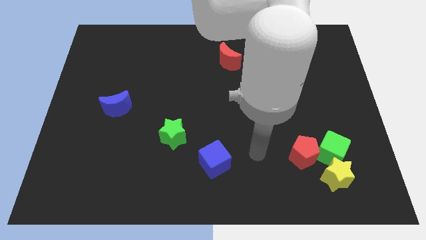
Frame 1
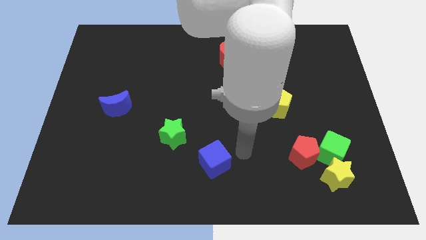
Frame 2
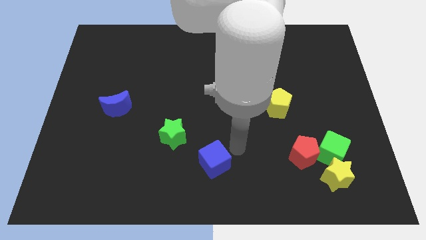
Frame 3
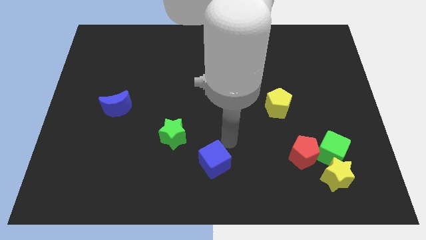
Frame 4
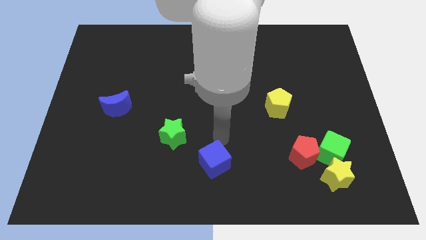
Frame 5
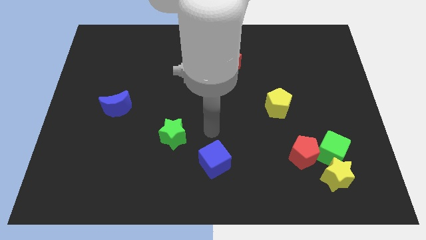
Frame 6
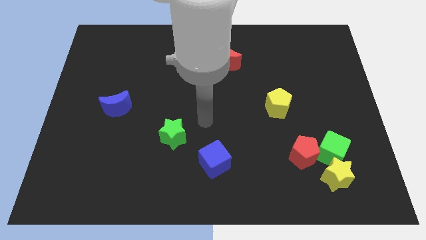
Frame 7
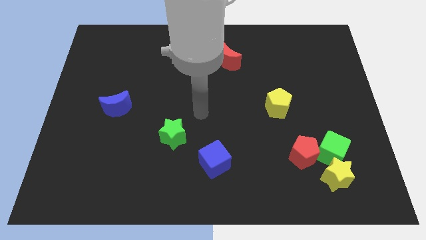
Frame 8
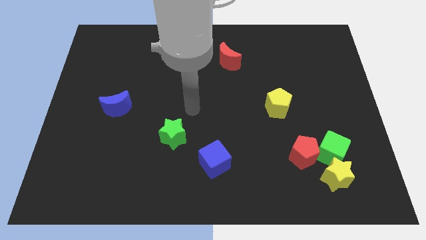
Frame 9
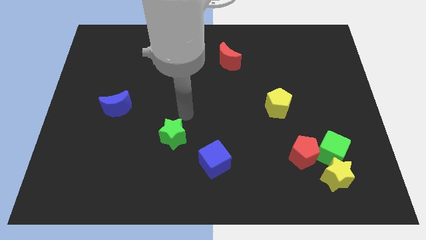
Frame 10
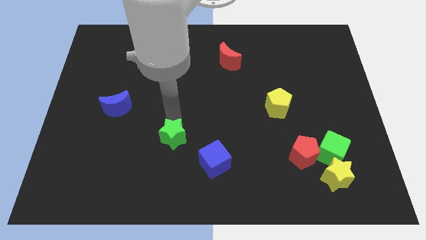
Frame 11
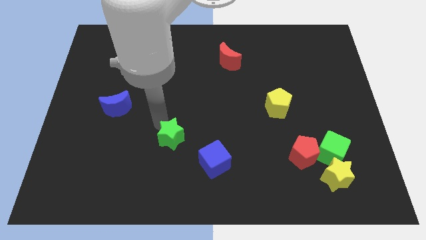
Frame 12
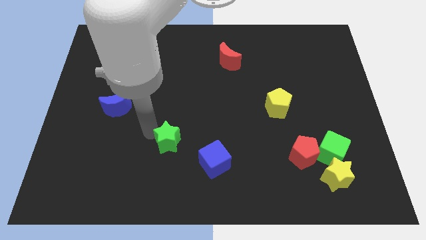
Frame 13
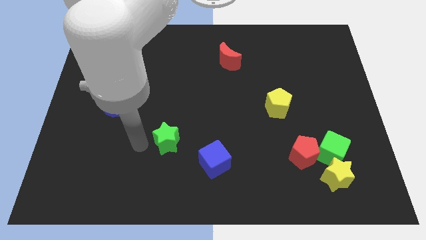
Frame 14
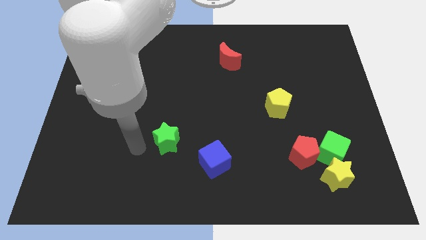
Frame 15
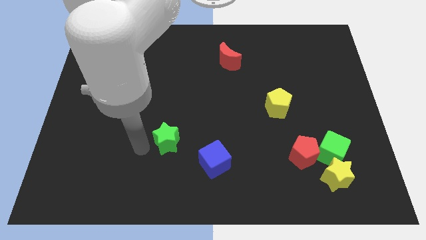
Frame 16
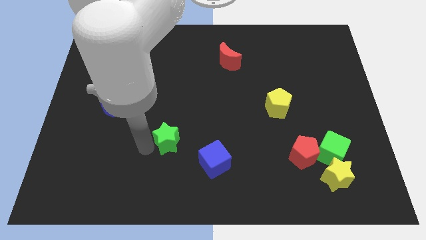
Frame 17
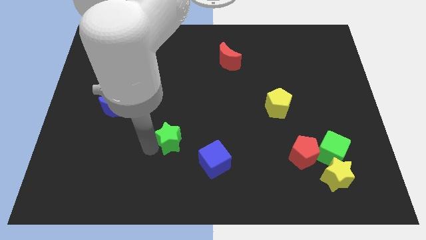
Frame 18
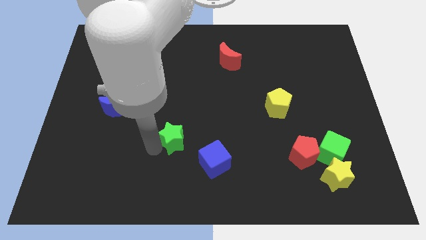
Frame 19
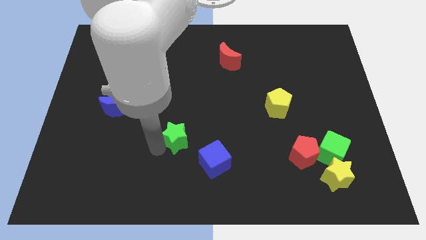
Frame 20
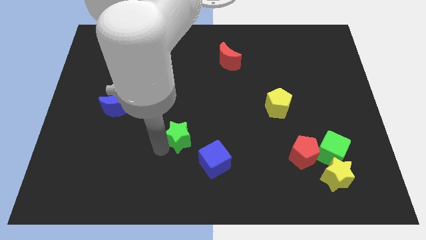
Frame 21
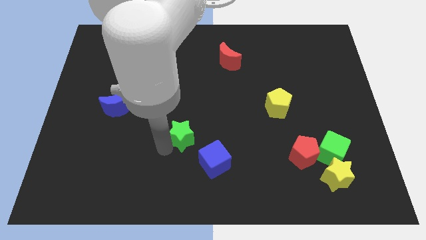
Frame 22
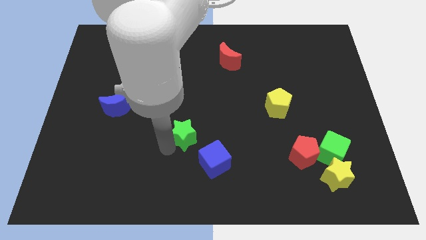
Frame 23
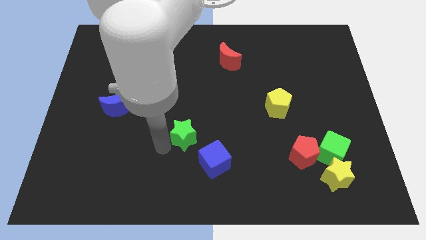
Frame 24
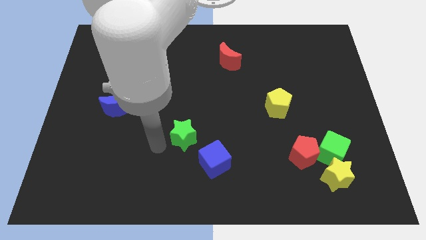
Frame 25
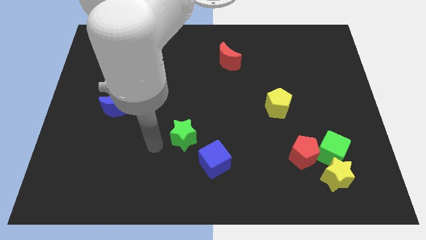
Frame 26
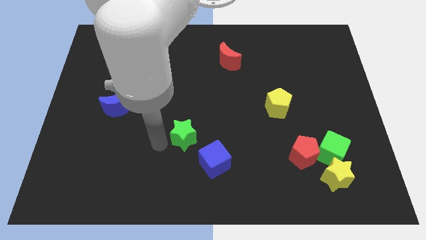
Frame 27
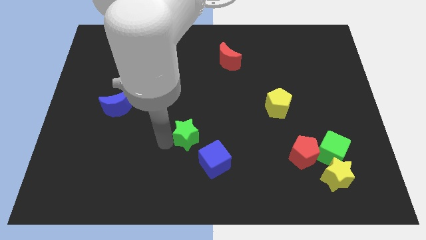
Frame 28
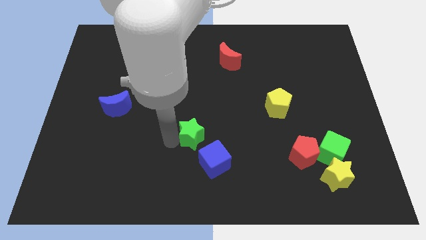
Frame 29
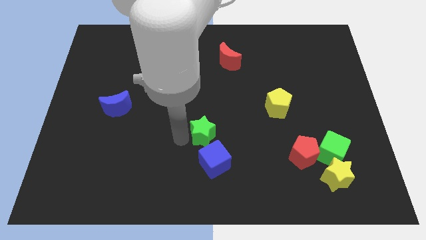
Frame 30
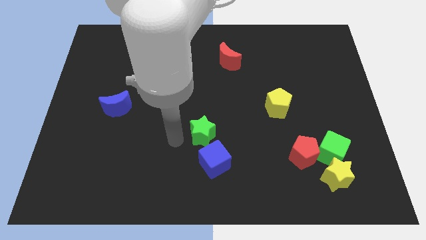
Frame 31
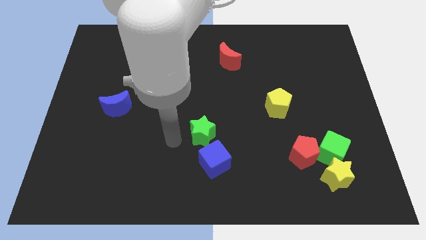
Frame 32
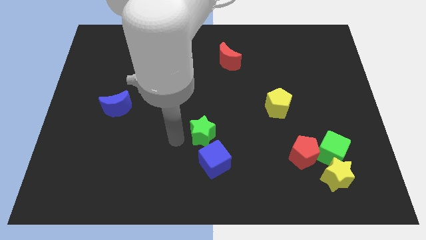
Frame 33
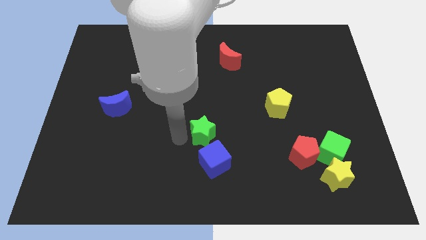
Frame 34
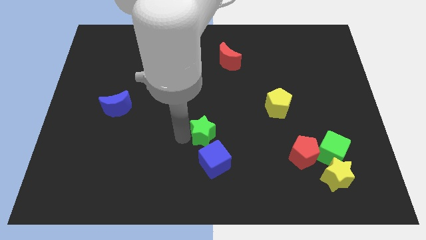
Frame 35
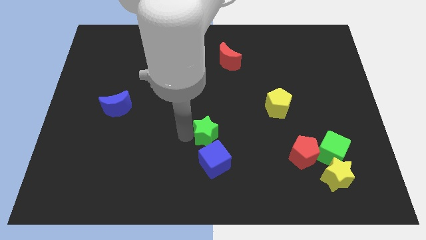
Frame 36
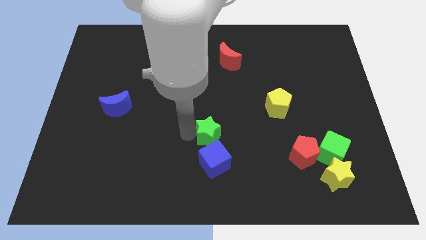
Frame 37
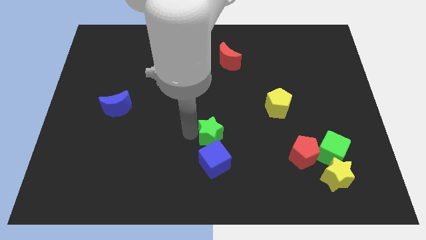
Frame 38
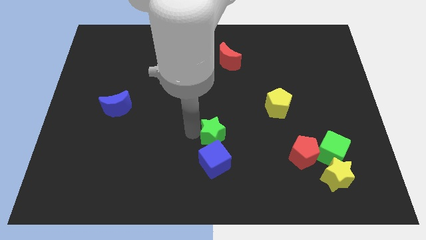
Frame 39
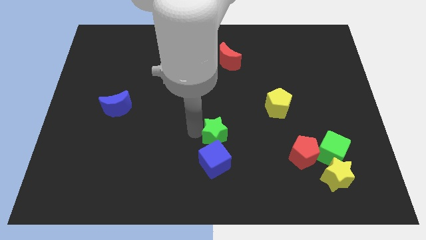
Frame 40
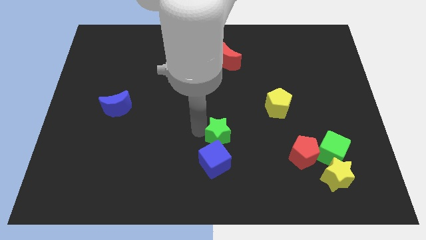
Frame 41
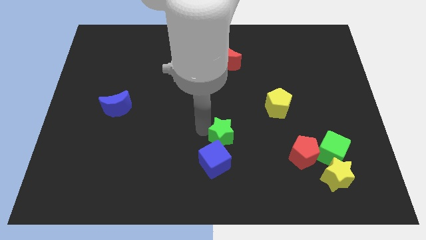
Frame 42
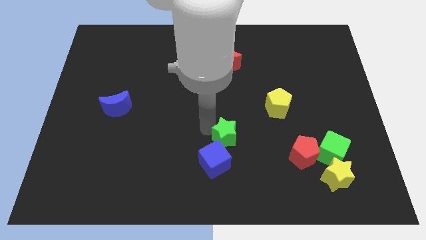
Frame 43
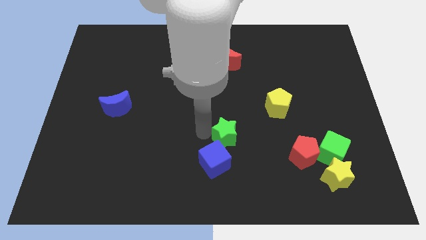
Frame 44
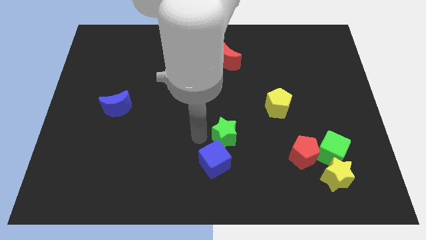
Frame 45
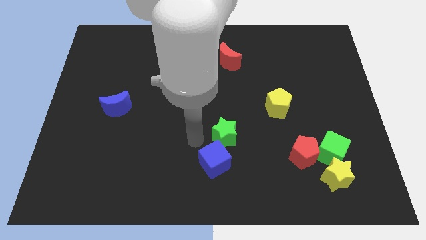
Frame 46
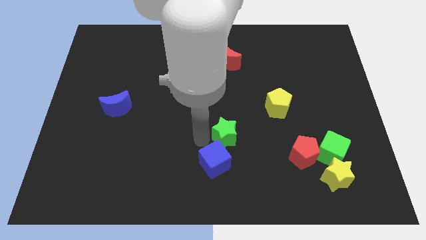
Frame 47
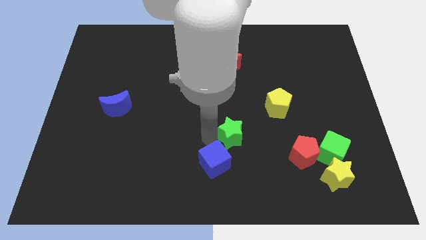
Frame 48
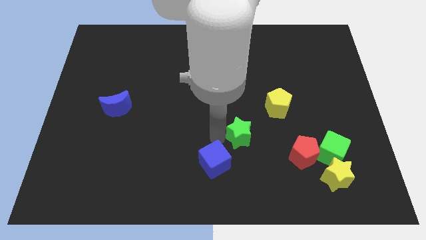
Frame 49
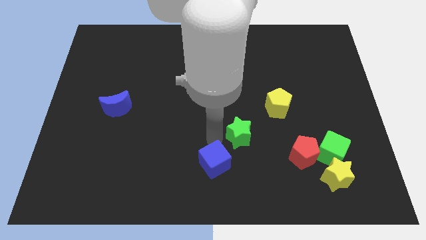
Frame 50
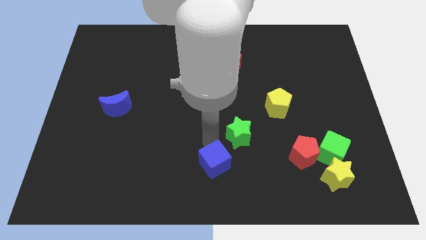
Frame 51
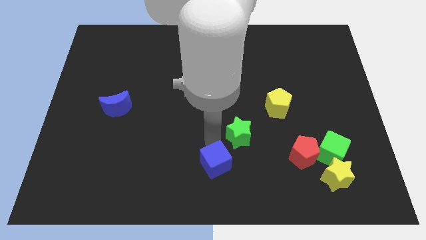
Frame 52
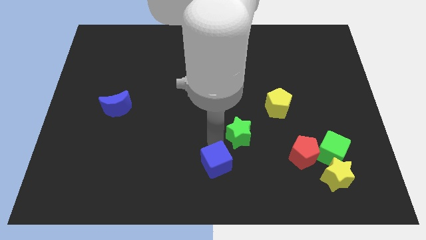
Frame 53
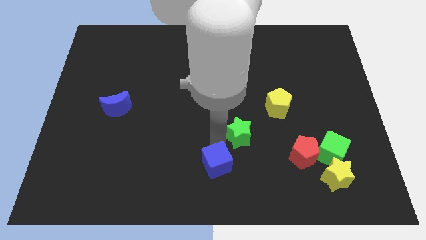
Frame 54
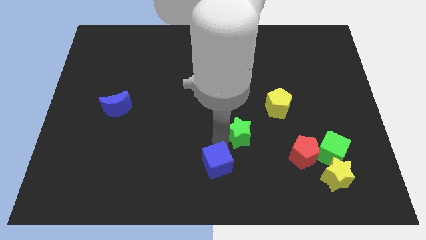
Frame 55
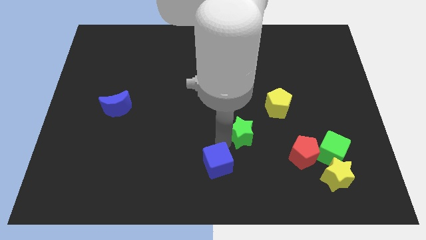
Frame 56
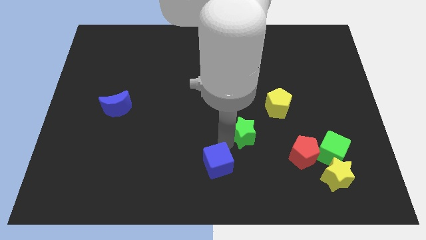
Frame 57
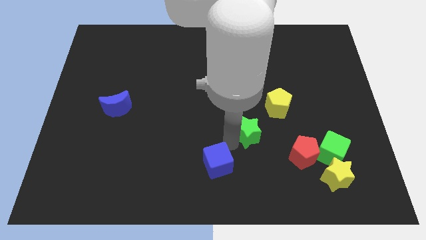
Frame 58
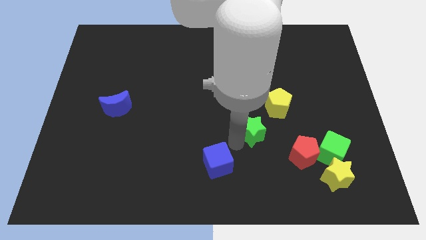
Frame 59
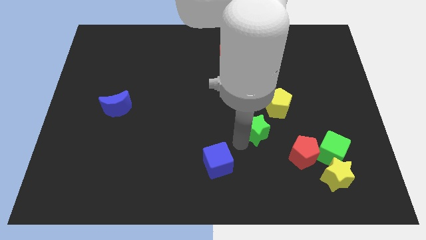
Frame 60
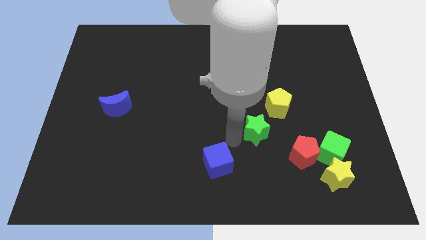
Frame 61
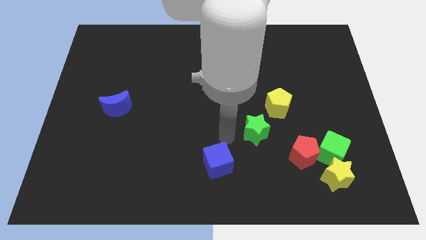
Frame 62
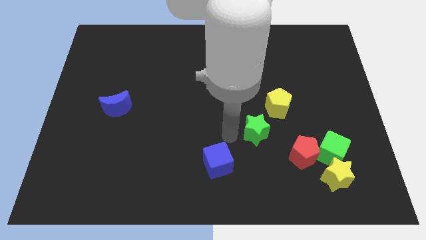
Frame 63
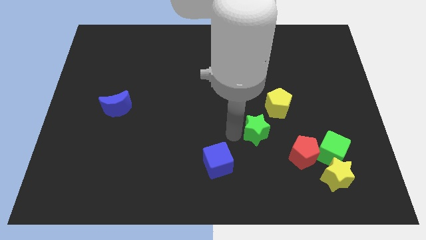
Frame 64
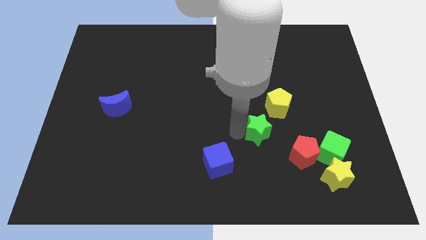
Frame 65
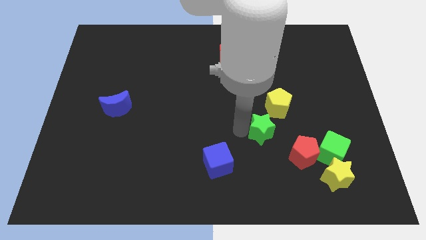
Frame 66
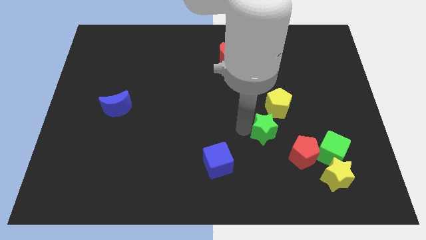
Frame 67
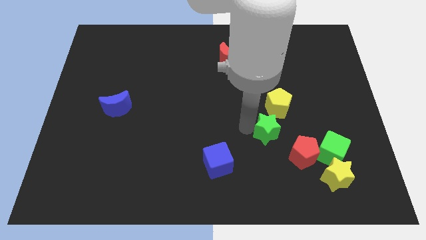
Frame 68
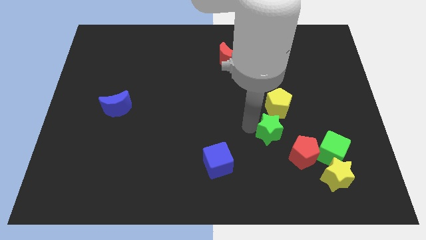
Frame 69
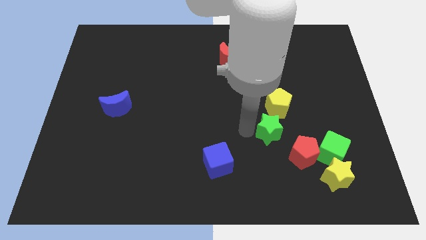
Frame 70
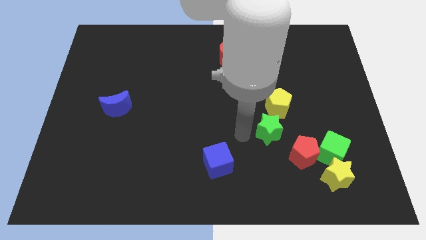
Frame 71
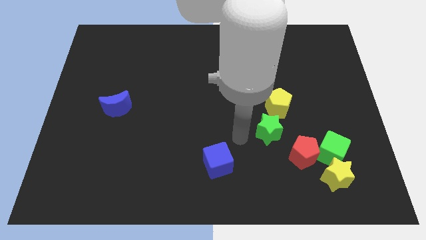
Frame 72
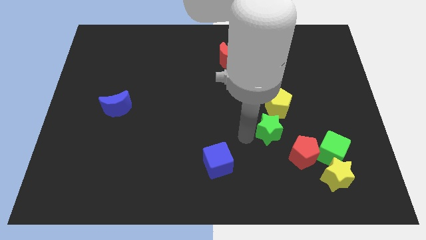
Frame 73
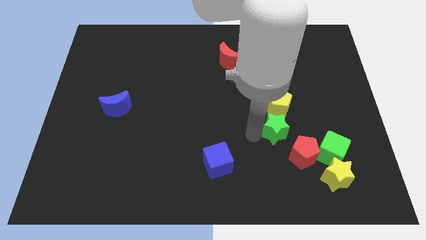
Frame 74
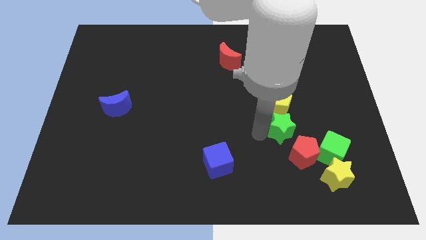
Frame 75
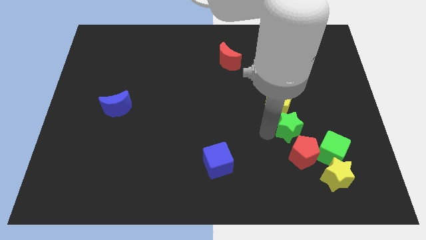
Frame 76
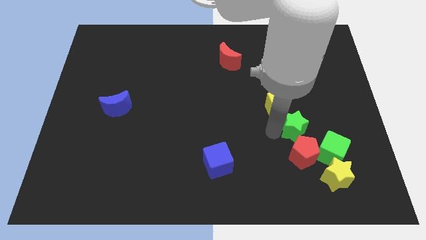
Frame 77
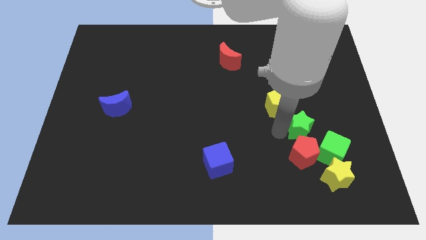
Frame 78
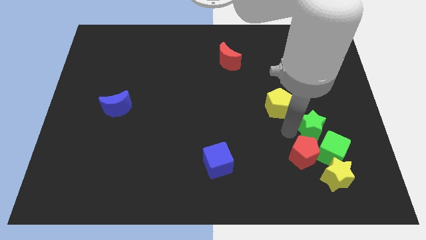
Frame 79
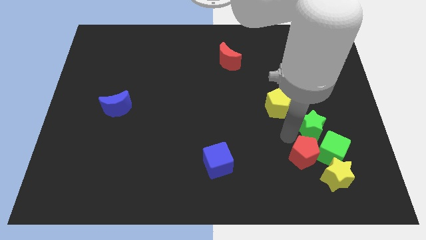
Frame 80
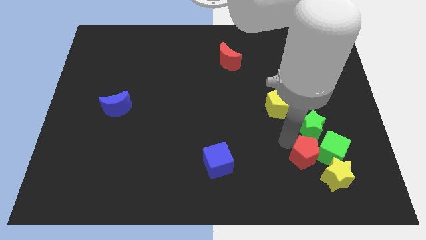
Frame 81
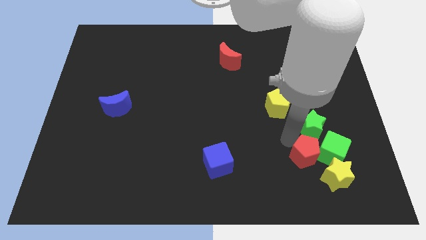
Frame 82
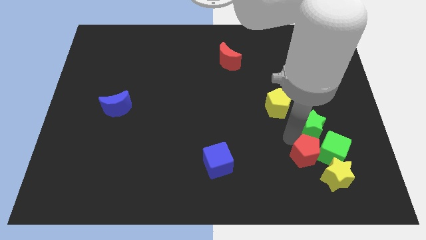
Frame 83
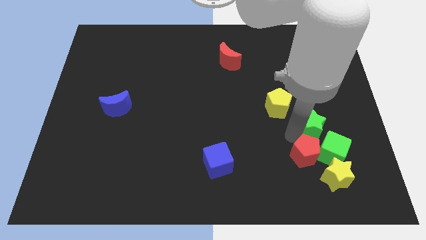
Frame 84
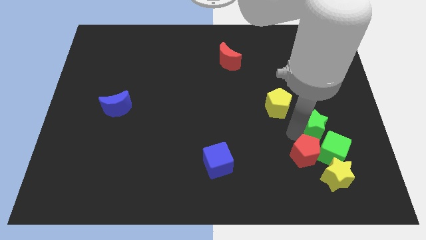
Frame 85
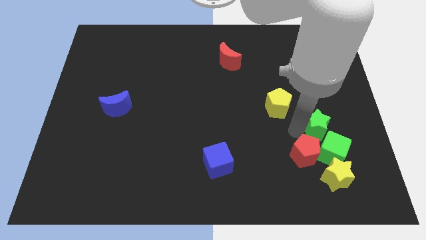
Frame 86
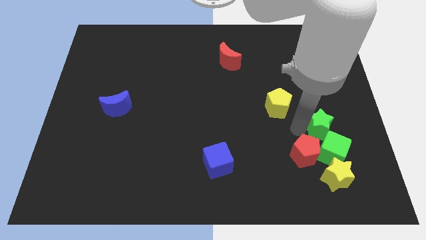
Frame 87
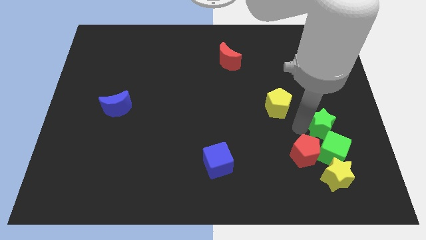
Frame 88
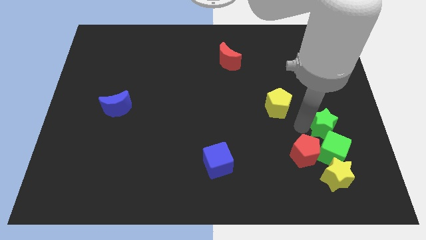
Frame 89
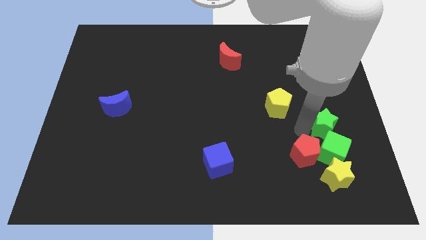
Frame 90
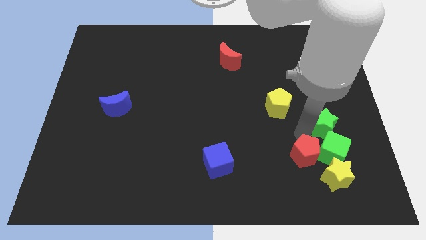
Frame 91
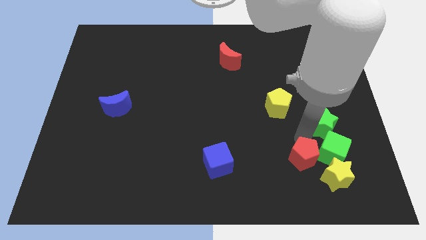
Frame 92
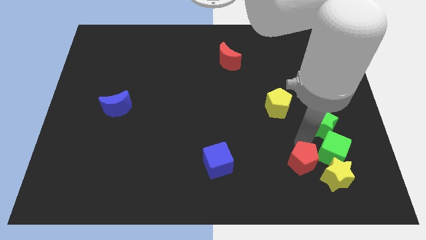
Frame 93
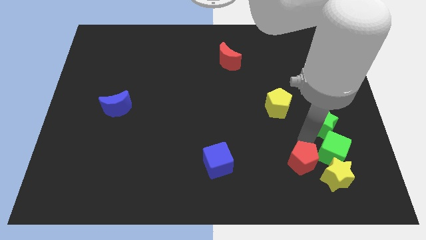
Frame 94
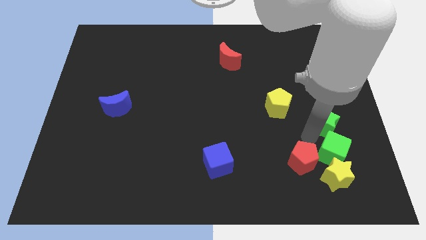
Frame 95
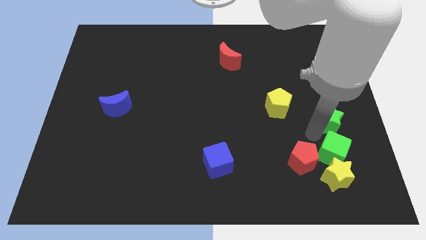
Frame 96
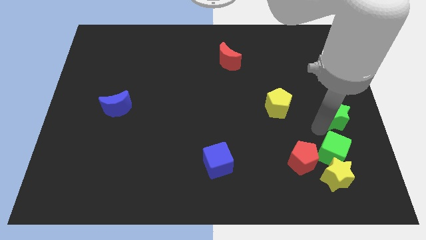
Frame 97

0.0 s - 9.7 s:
push the green star to the right side
